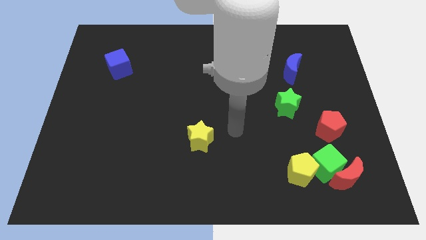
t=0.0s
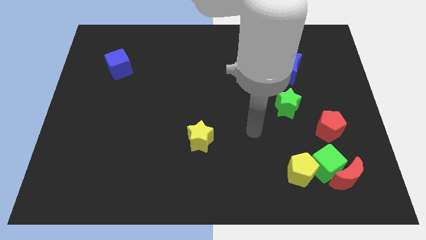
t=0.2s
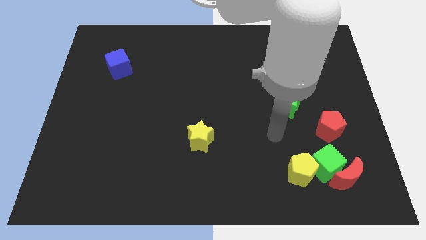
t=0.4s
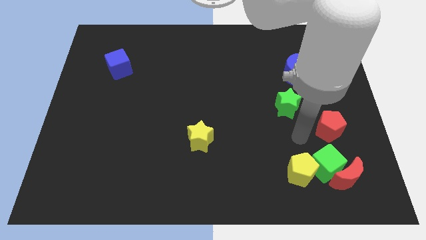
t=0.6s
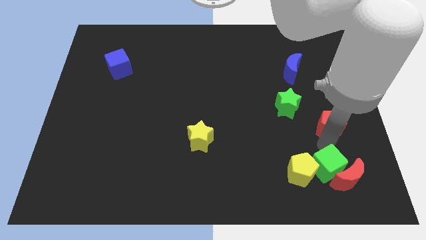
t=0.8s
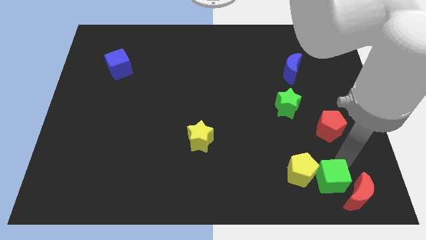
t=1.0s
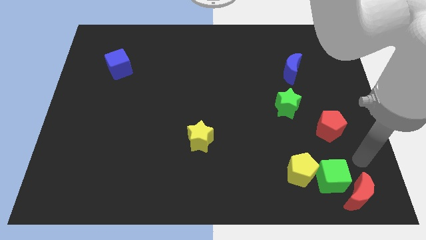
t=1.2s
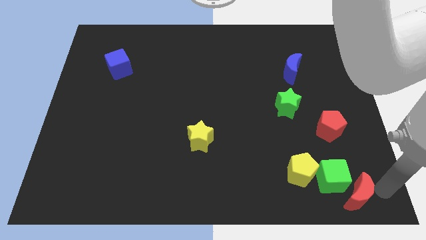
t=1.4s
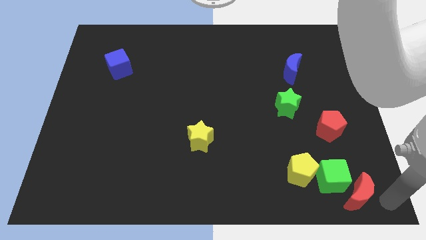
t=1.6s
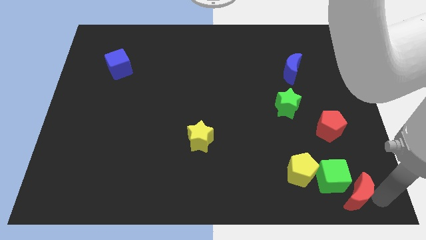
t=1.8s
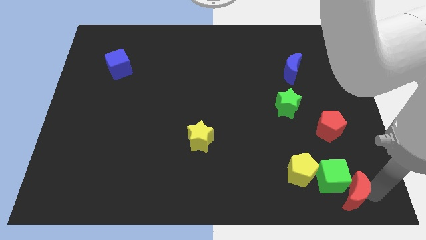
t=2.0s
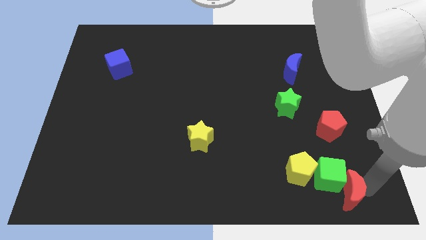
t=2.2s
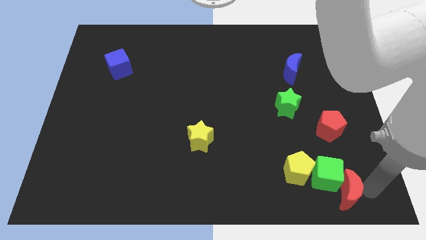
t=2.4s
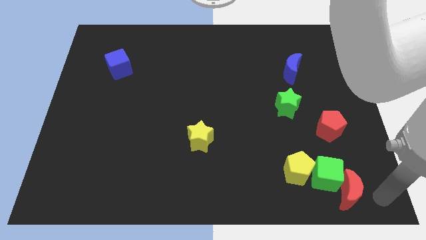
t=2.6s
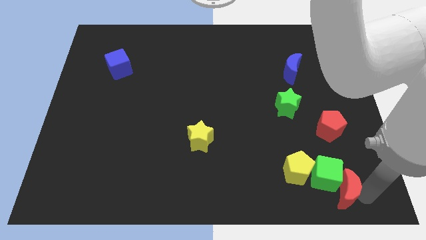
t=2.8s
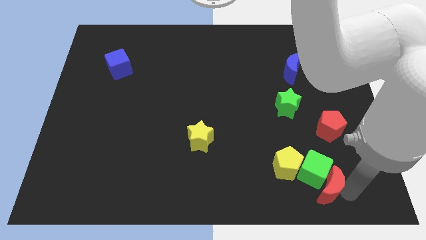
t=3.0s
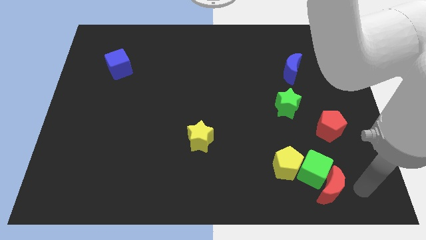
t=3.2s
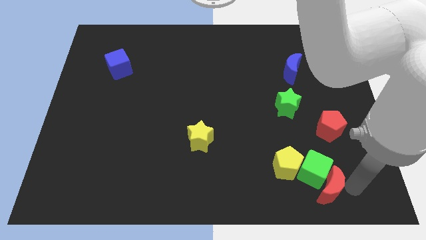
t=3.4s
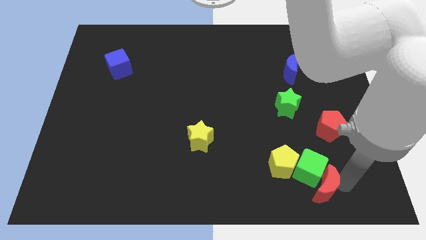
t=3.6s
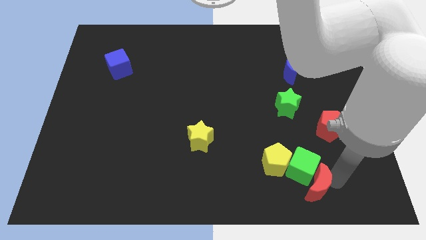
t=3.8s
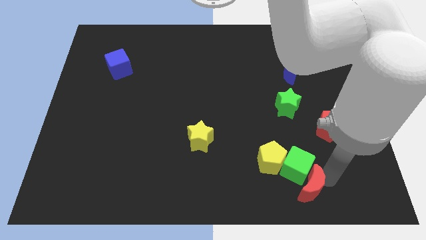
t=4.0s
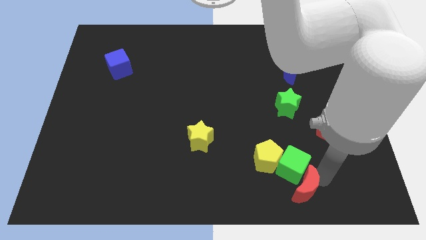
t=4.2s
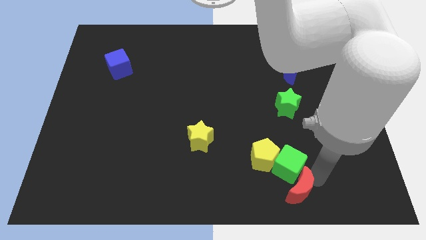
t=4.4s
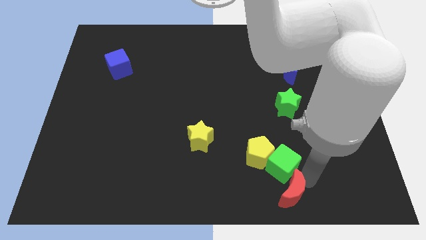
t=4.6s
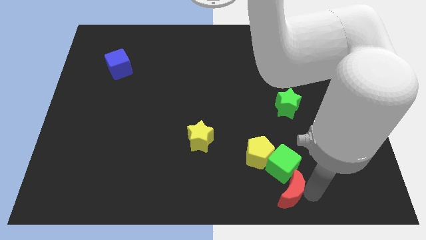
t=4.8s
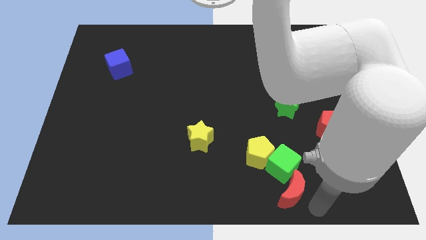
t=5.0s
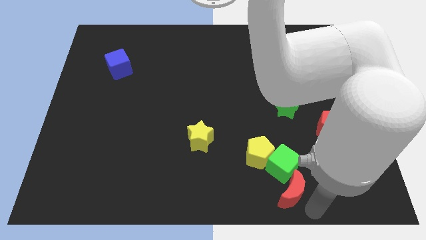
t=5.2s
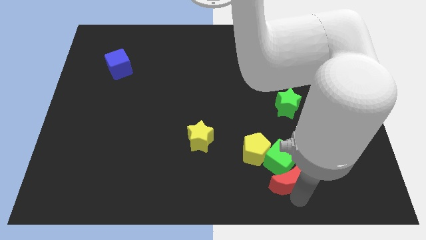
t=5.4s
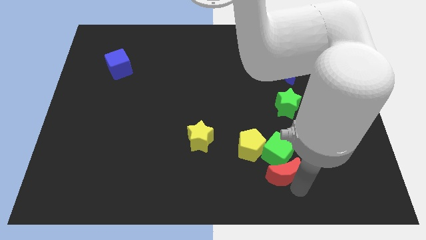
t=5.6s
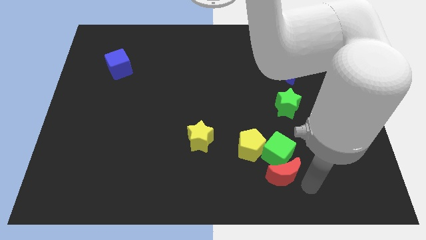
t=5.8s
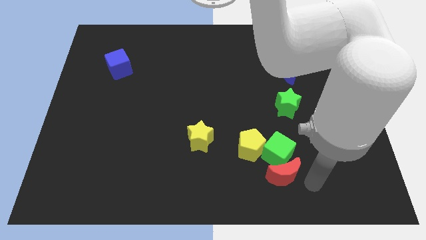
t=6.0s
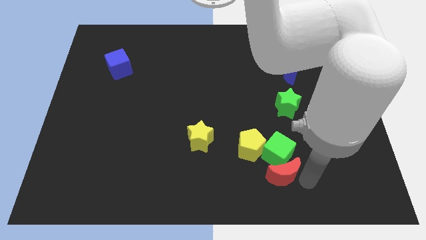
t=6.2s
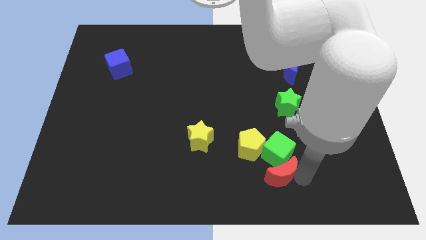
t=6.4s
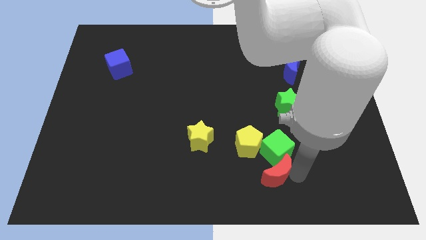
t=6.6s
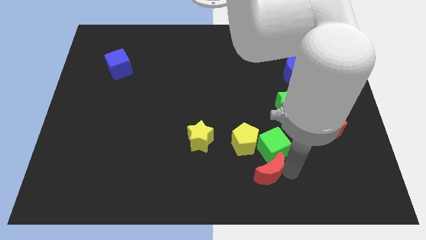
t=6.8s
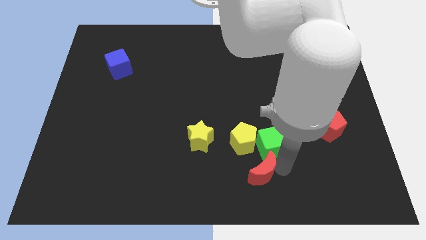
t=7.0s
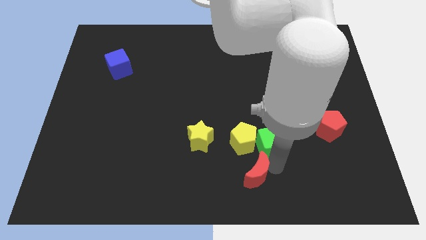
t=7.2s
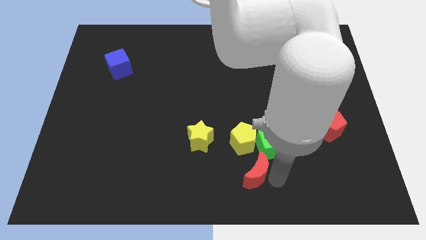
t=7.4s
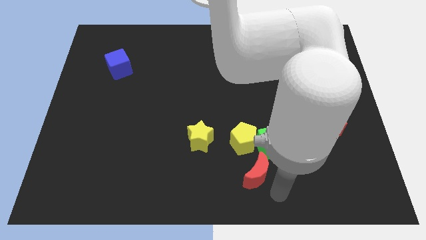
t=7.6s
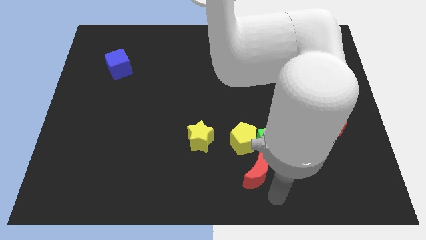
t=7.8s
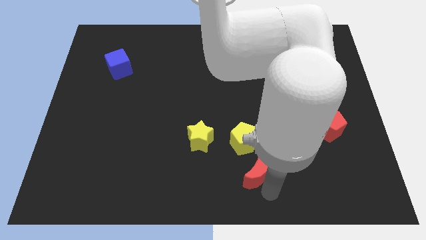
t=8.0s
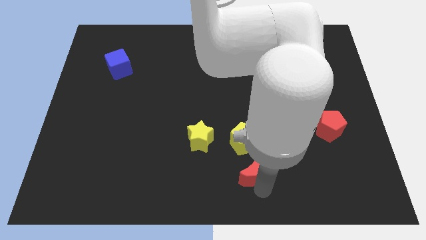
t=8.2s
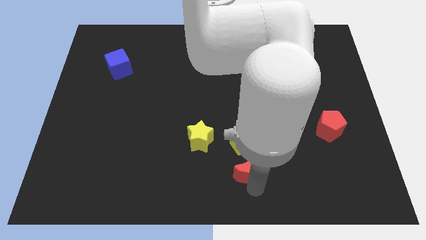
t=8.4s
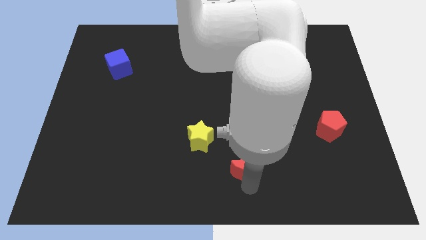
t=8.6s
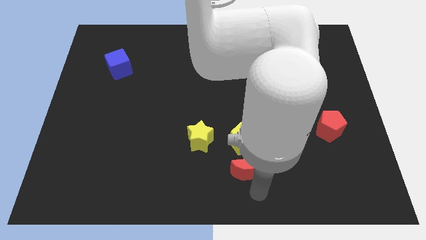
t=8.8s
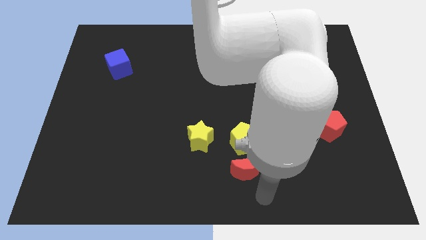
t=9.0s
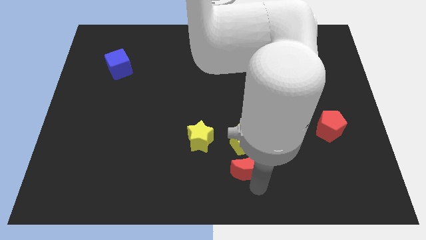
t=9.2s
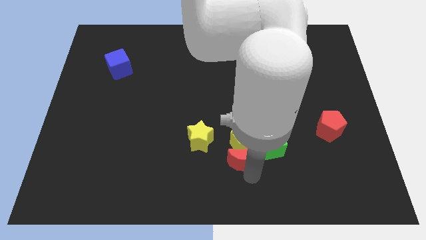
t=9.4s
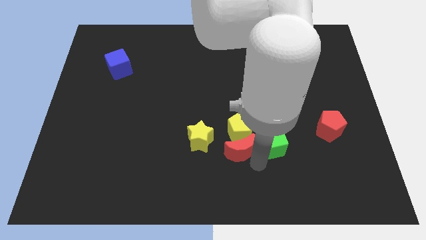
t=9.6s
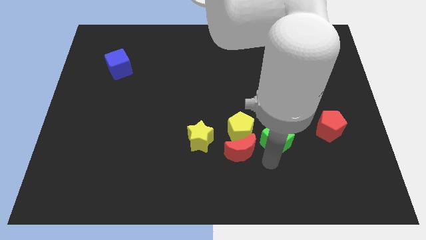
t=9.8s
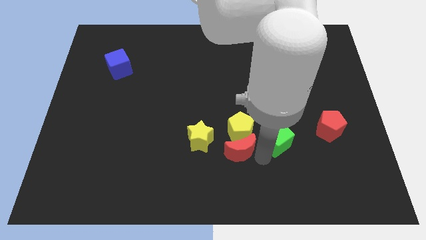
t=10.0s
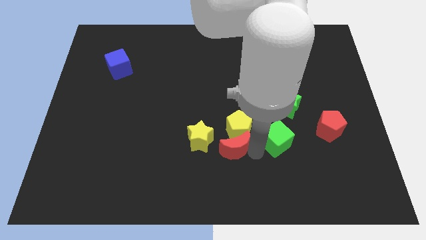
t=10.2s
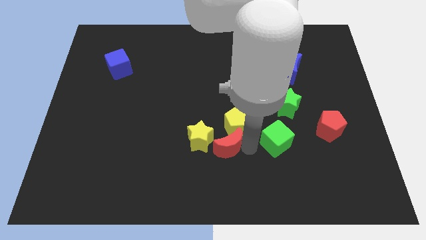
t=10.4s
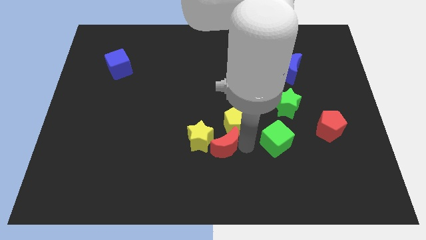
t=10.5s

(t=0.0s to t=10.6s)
move the red moon close to the yellow star

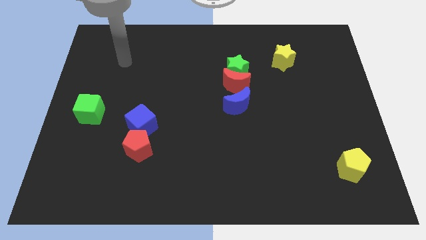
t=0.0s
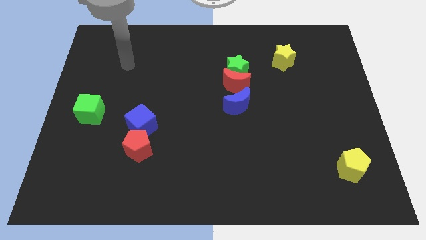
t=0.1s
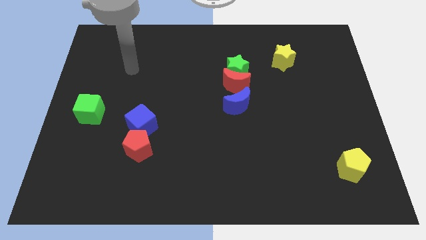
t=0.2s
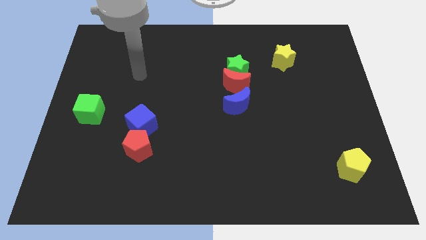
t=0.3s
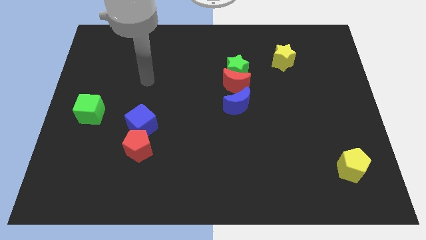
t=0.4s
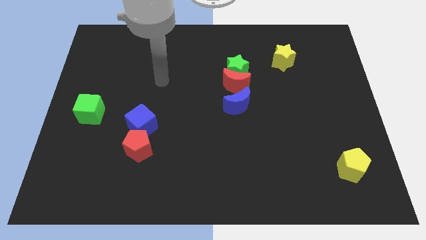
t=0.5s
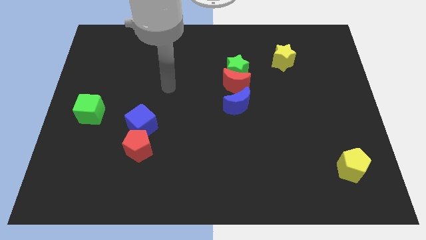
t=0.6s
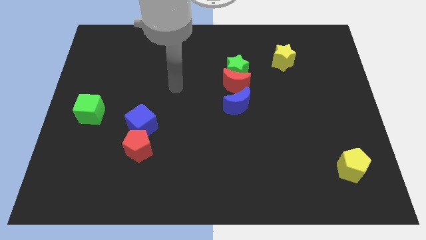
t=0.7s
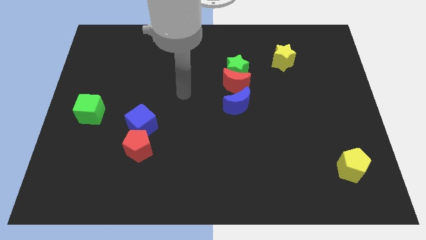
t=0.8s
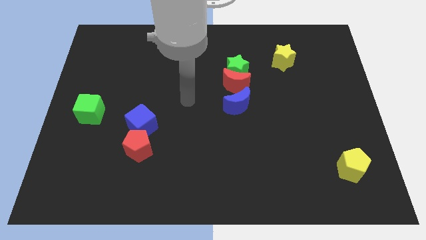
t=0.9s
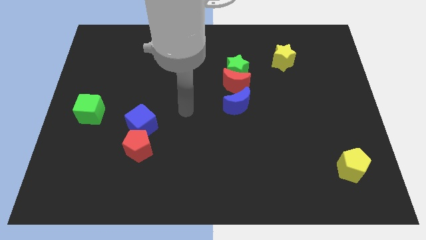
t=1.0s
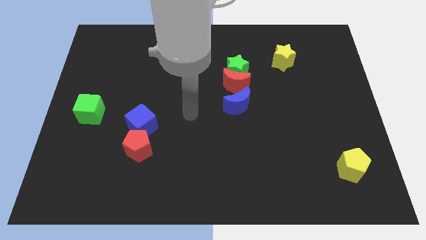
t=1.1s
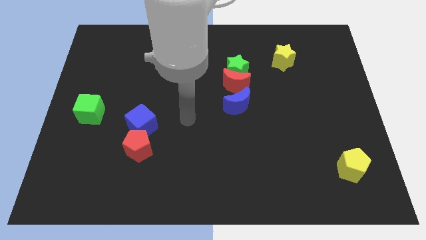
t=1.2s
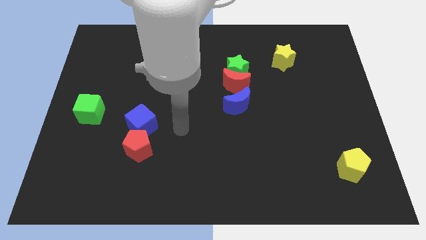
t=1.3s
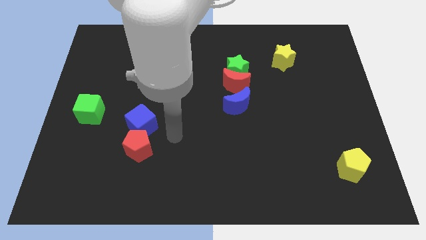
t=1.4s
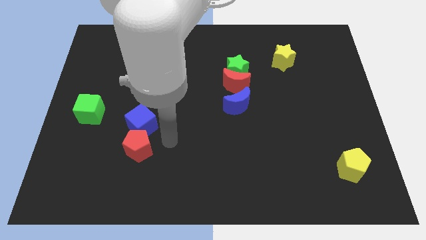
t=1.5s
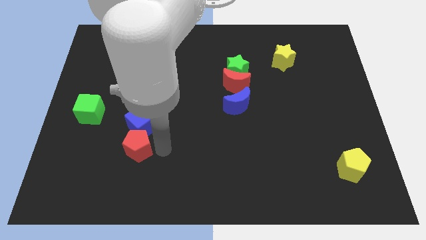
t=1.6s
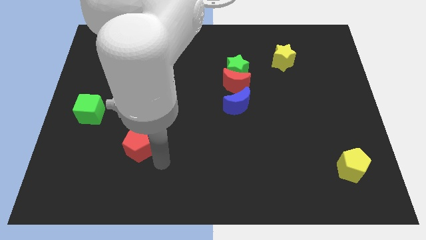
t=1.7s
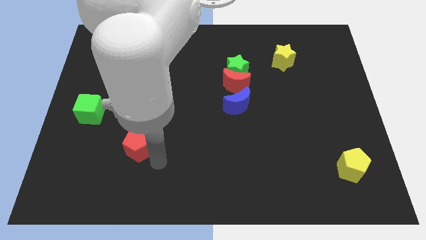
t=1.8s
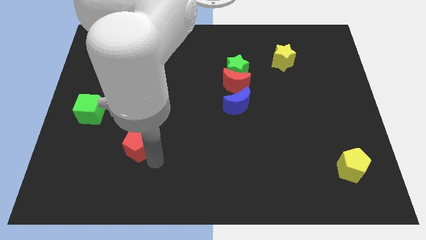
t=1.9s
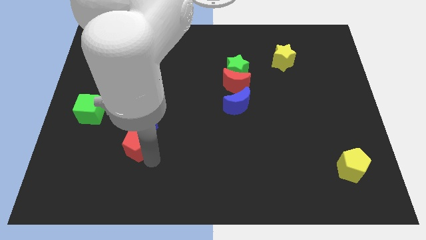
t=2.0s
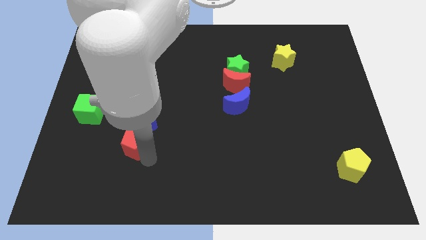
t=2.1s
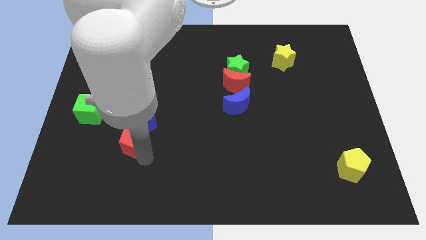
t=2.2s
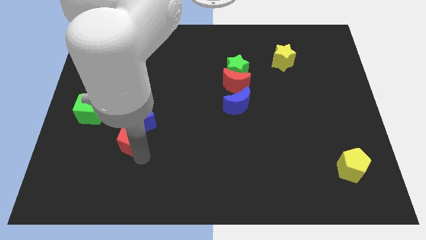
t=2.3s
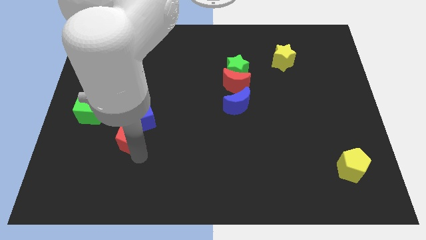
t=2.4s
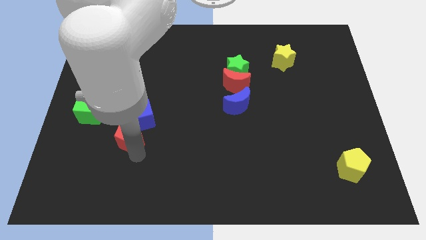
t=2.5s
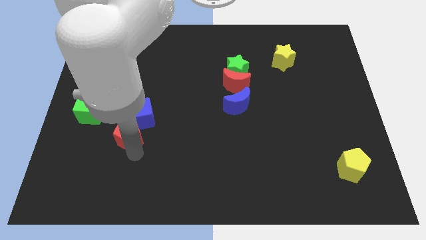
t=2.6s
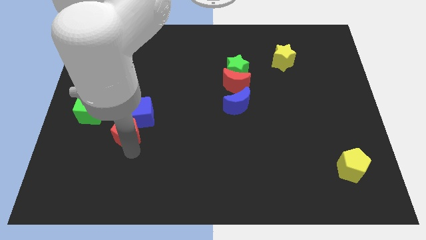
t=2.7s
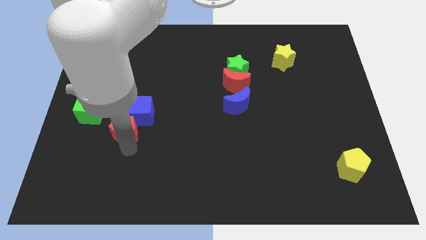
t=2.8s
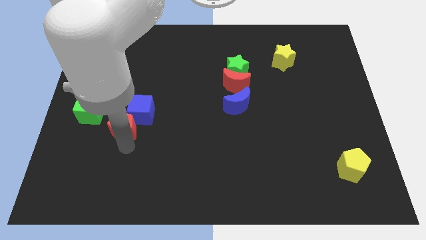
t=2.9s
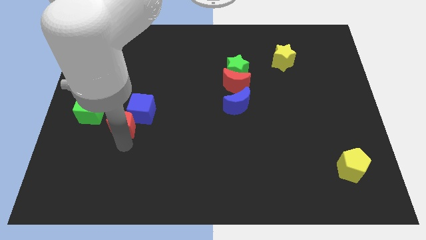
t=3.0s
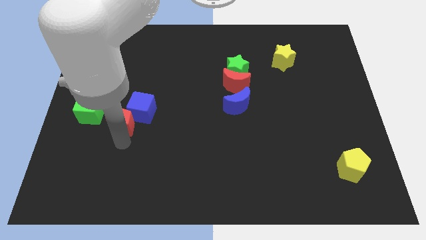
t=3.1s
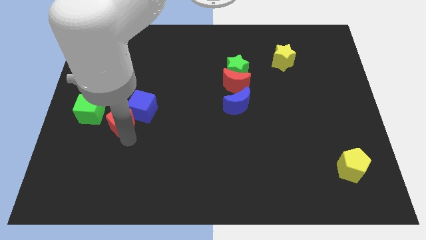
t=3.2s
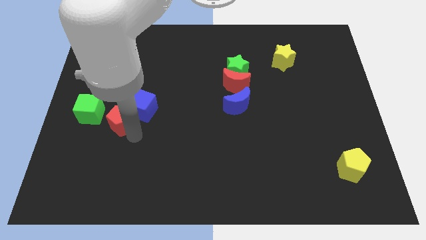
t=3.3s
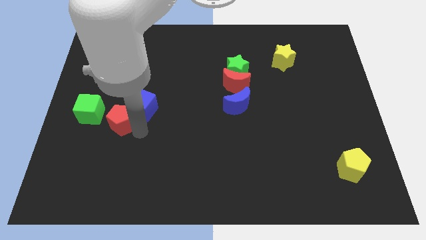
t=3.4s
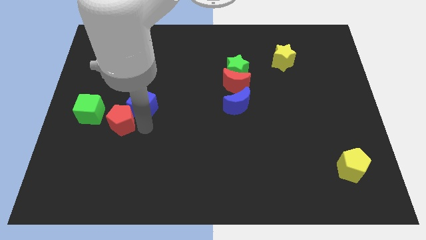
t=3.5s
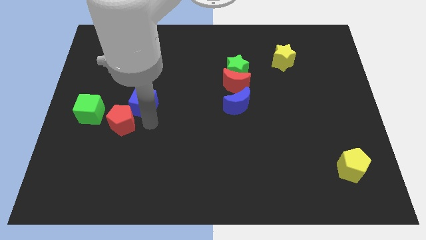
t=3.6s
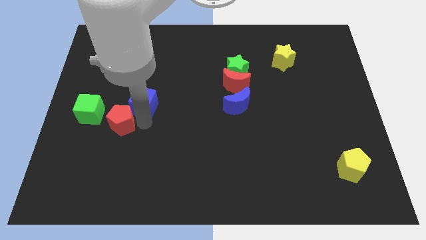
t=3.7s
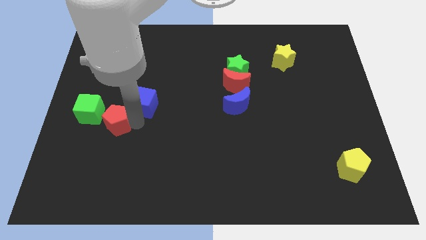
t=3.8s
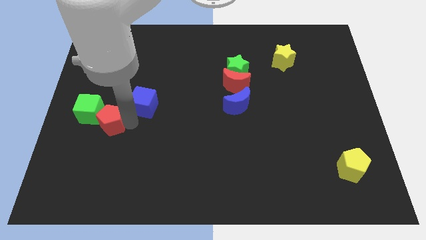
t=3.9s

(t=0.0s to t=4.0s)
push the red pentagon towards the green cube
